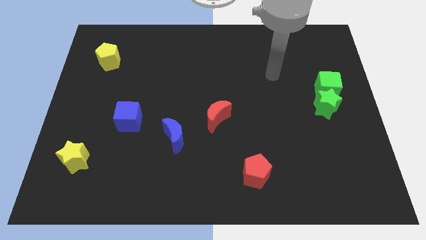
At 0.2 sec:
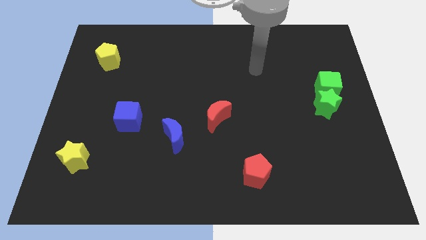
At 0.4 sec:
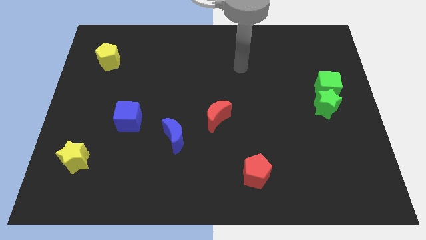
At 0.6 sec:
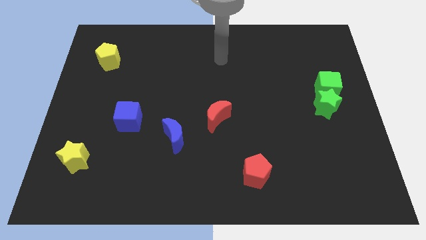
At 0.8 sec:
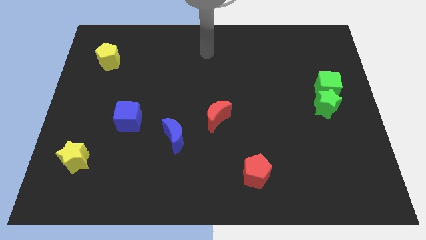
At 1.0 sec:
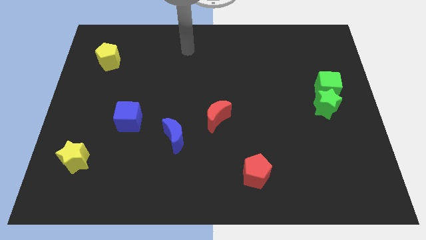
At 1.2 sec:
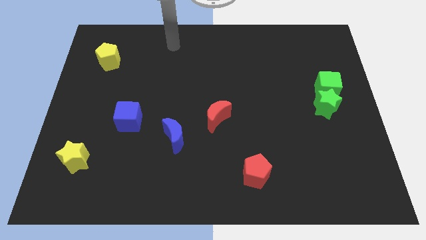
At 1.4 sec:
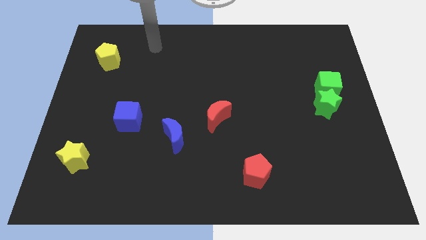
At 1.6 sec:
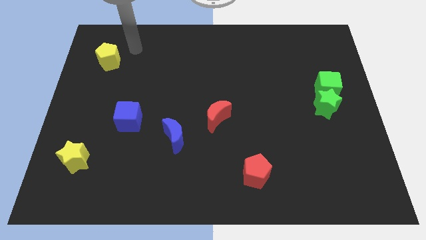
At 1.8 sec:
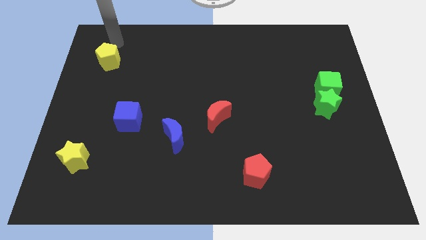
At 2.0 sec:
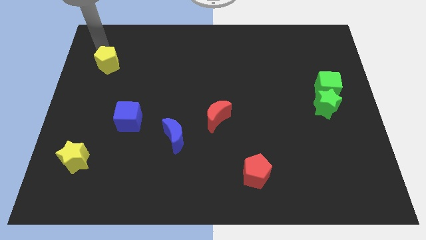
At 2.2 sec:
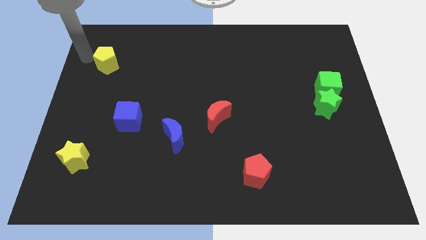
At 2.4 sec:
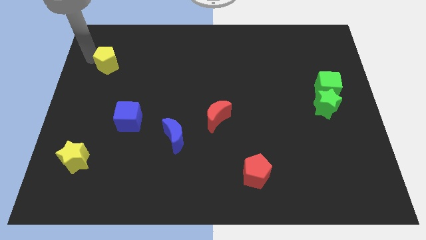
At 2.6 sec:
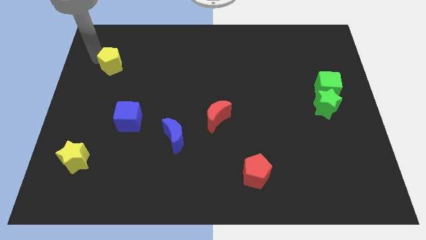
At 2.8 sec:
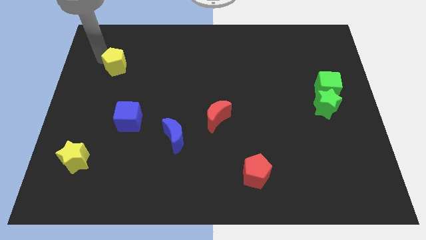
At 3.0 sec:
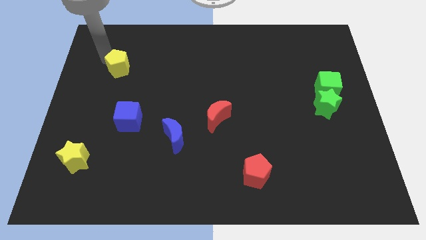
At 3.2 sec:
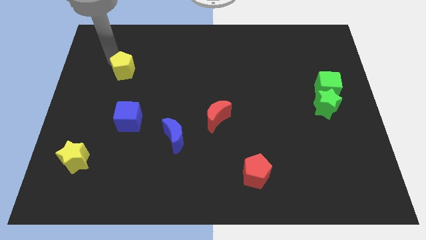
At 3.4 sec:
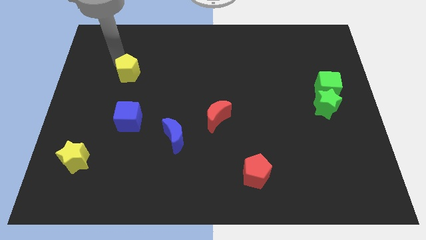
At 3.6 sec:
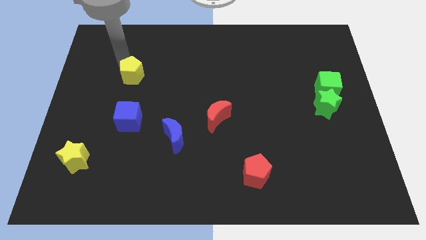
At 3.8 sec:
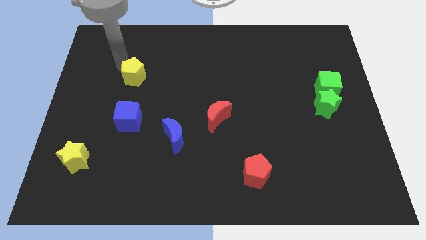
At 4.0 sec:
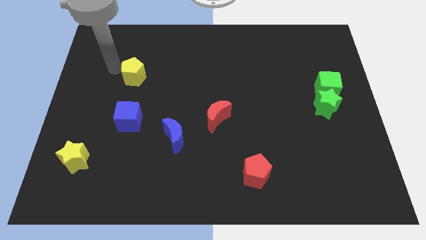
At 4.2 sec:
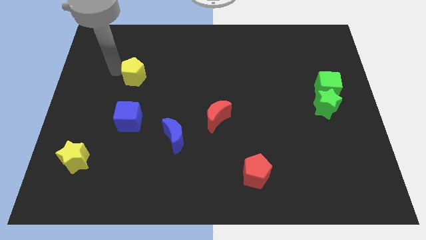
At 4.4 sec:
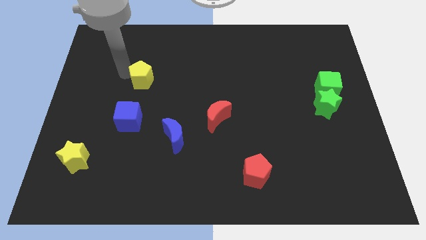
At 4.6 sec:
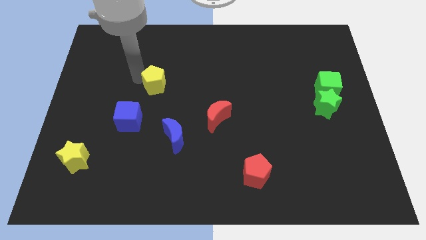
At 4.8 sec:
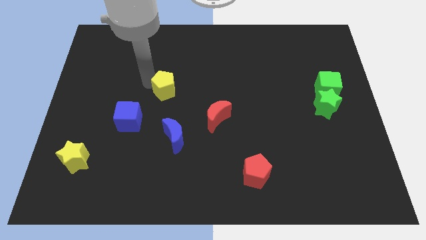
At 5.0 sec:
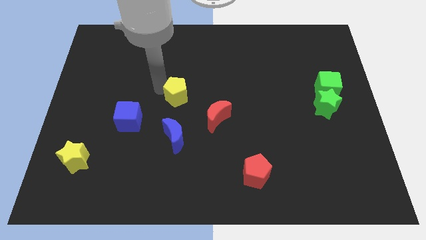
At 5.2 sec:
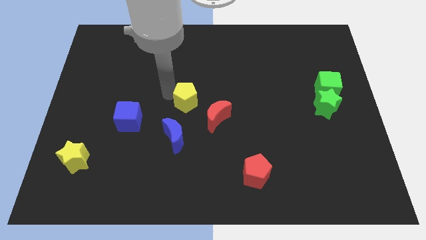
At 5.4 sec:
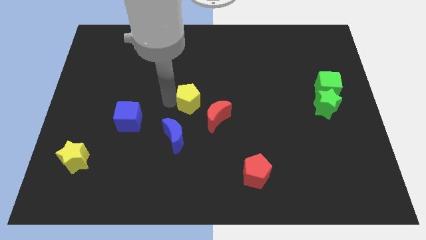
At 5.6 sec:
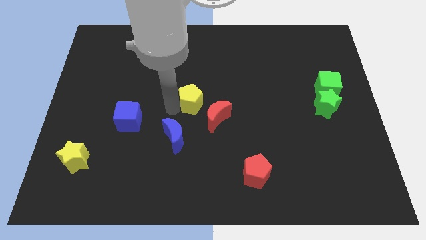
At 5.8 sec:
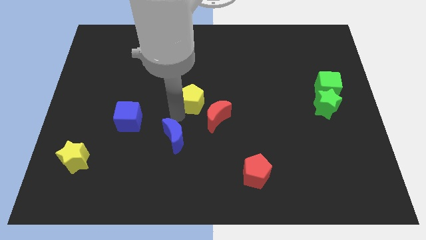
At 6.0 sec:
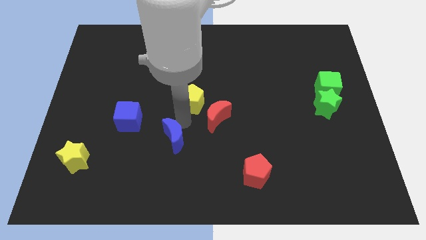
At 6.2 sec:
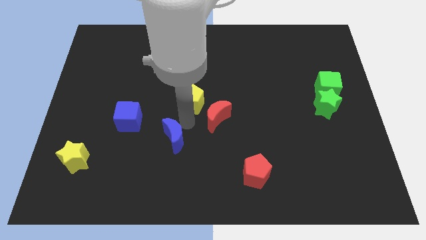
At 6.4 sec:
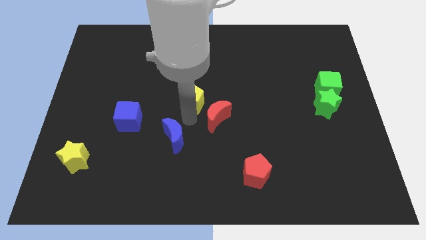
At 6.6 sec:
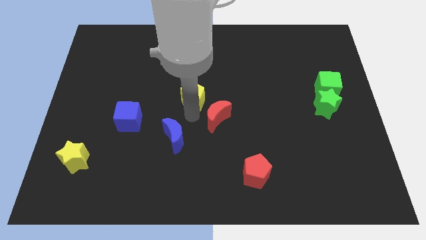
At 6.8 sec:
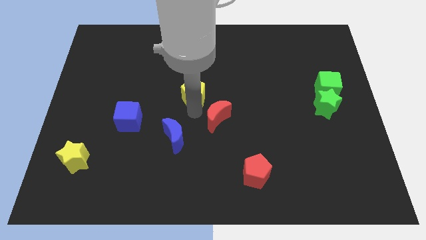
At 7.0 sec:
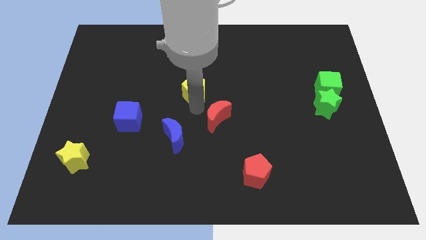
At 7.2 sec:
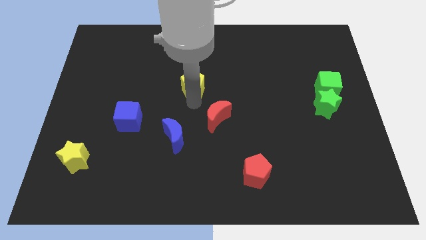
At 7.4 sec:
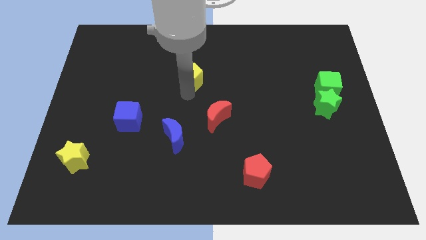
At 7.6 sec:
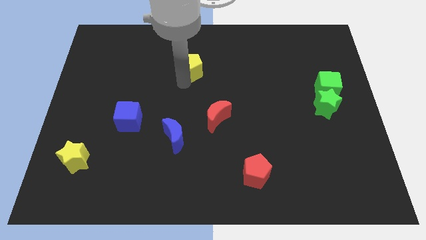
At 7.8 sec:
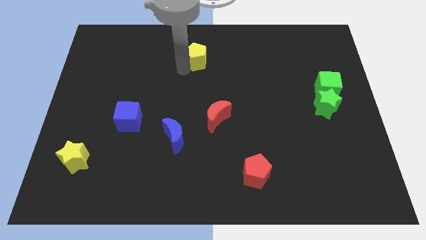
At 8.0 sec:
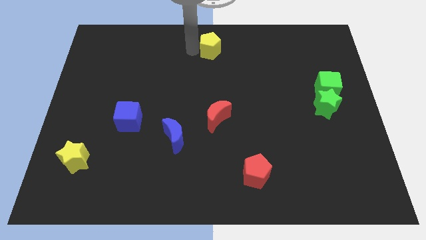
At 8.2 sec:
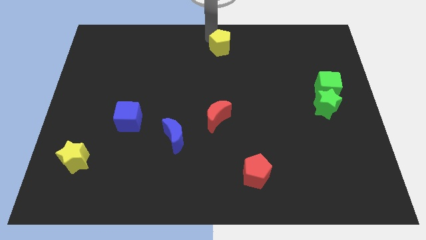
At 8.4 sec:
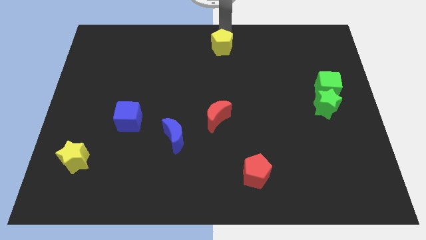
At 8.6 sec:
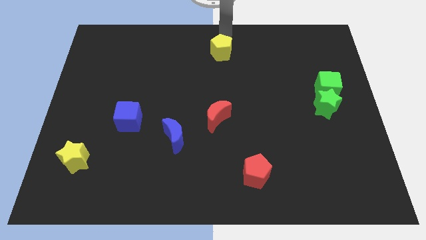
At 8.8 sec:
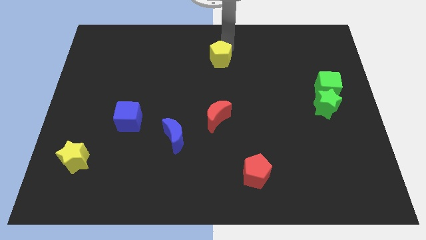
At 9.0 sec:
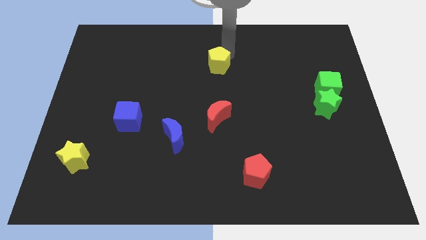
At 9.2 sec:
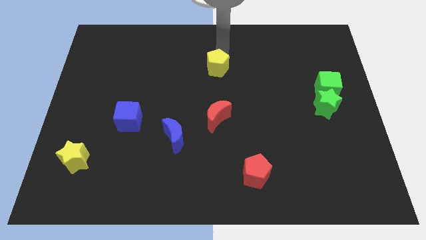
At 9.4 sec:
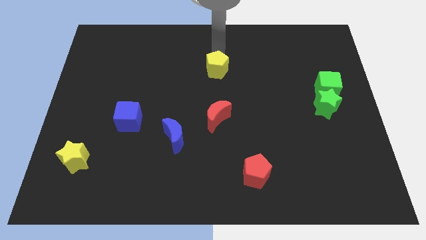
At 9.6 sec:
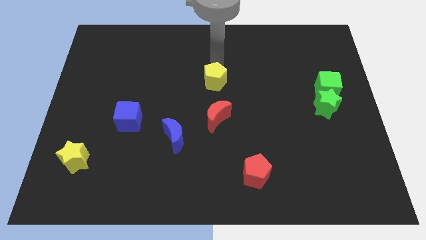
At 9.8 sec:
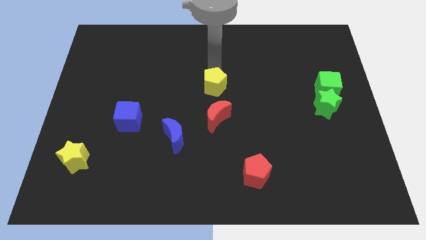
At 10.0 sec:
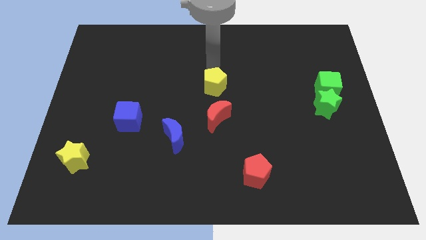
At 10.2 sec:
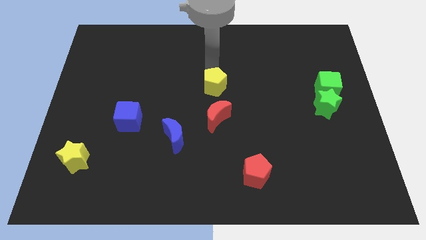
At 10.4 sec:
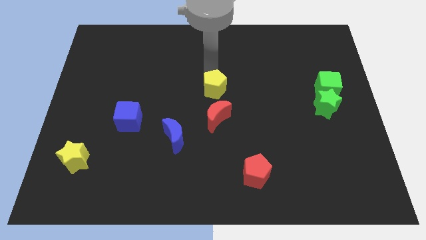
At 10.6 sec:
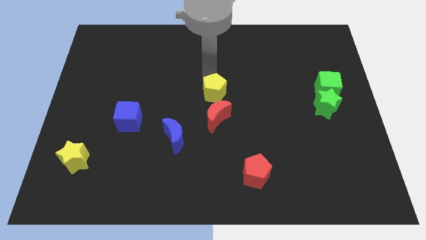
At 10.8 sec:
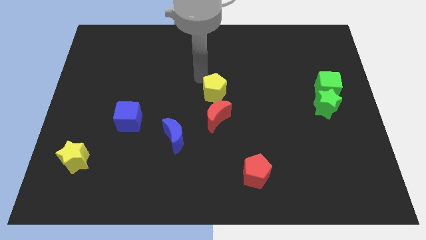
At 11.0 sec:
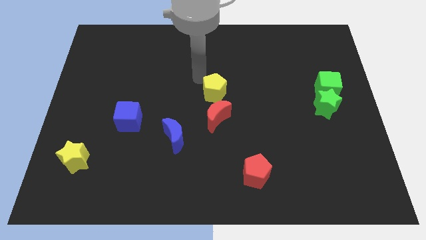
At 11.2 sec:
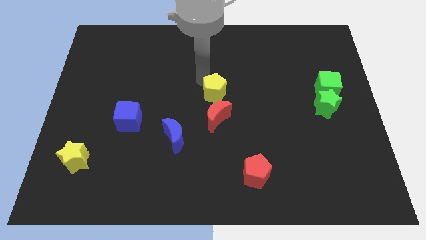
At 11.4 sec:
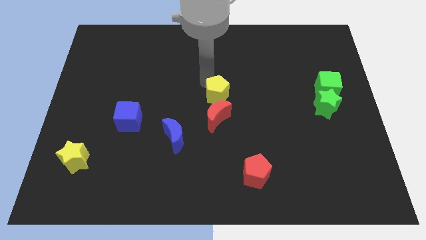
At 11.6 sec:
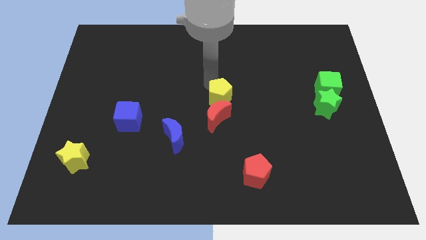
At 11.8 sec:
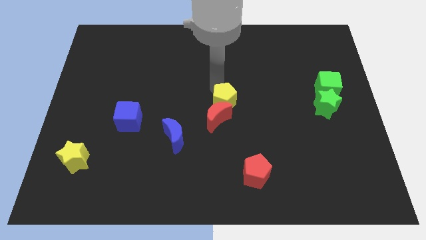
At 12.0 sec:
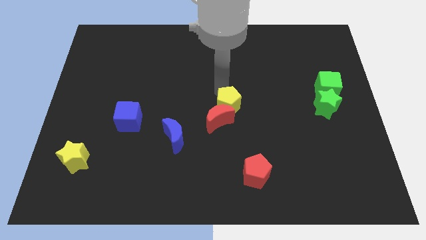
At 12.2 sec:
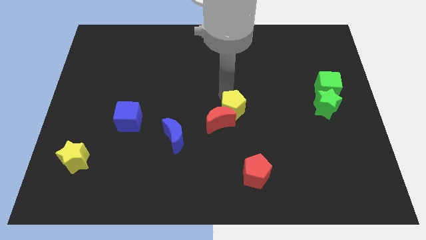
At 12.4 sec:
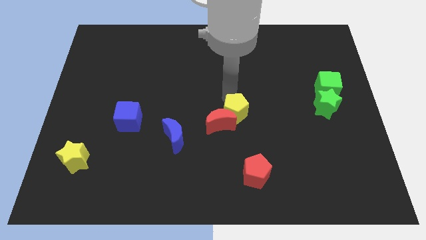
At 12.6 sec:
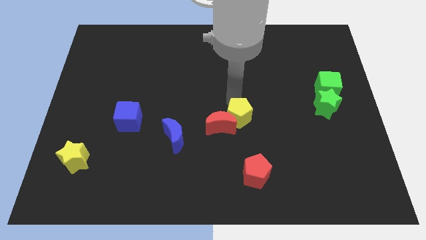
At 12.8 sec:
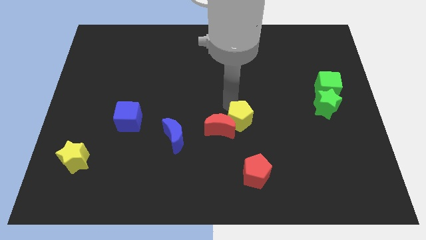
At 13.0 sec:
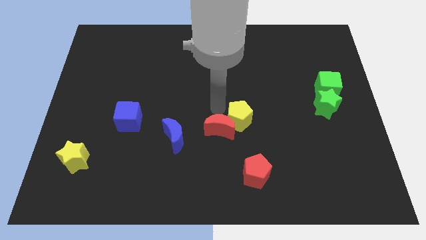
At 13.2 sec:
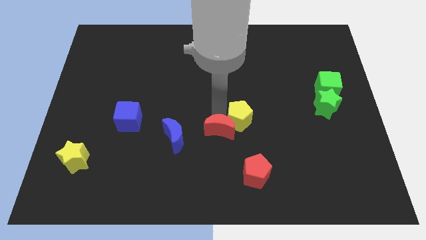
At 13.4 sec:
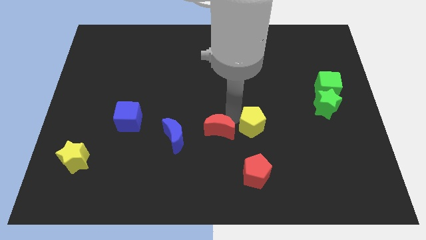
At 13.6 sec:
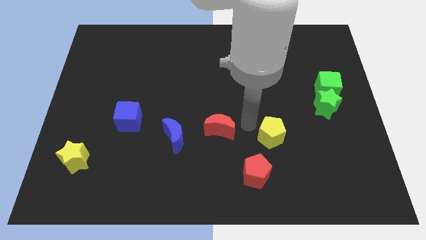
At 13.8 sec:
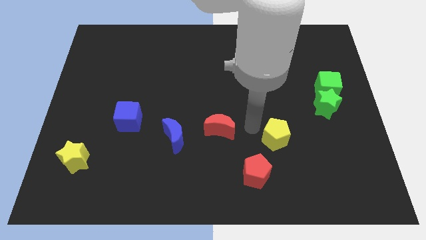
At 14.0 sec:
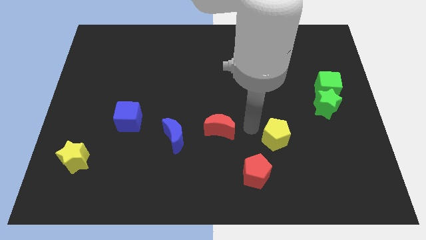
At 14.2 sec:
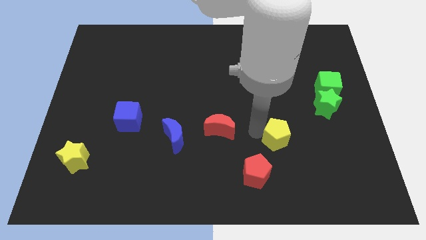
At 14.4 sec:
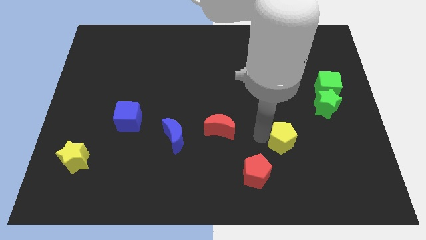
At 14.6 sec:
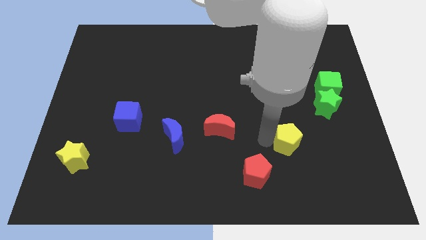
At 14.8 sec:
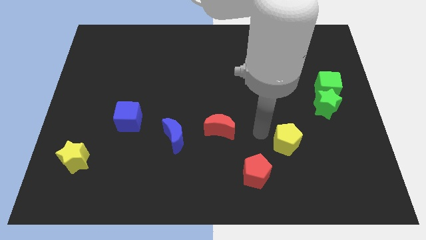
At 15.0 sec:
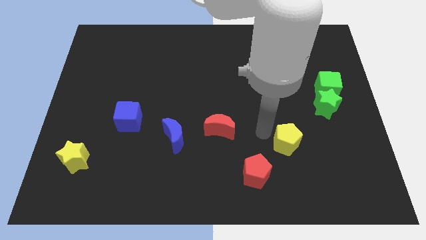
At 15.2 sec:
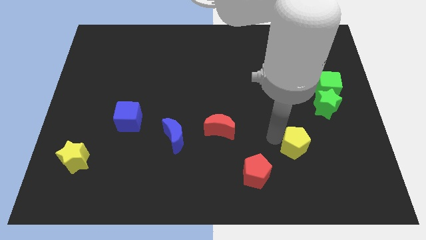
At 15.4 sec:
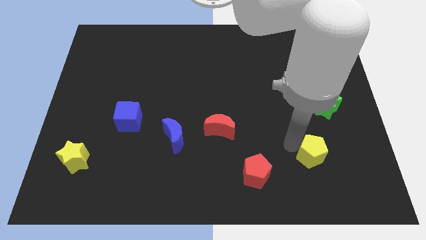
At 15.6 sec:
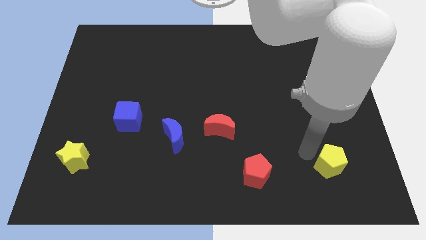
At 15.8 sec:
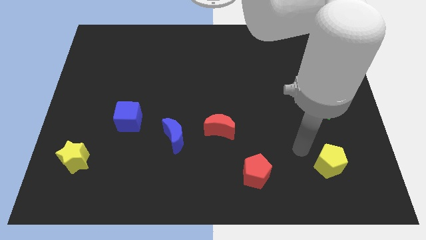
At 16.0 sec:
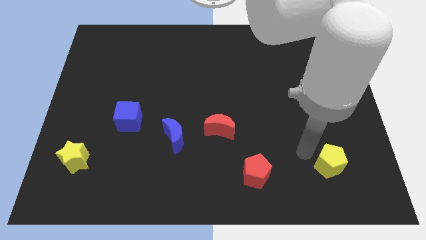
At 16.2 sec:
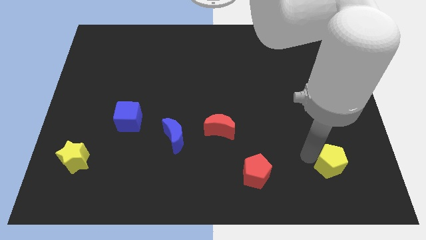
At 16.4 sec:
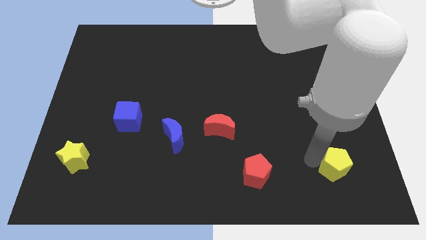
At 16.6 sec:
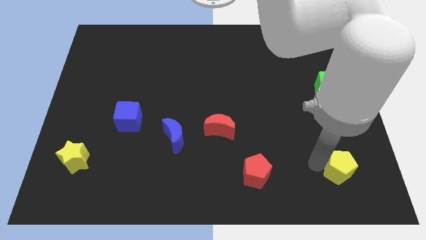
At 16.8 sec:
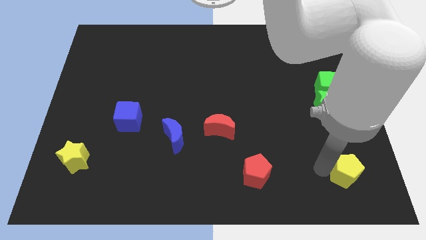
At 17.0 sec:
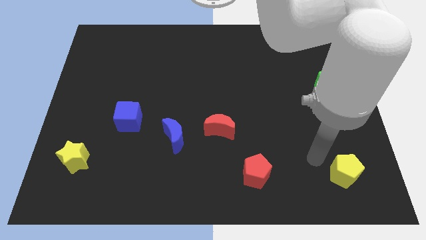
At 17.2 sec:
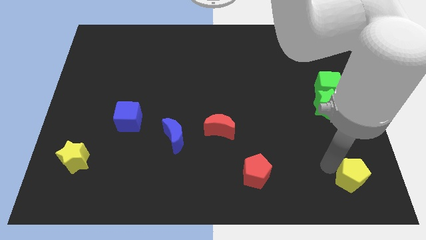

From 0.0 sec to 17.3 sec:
push the yellow pentagon to the bottom right
